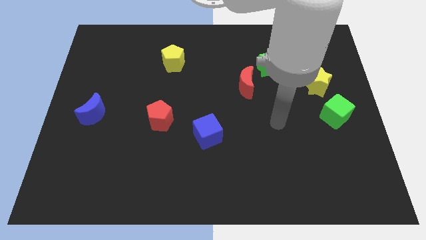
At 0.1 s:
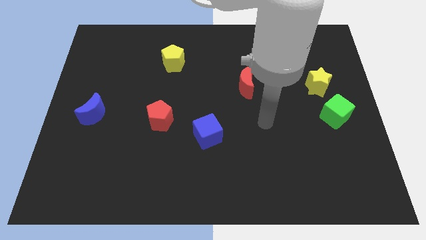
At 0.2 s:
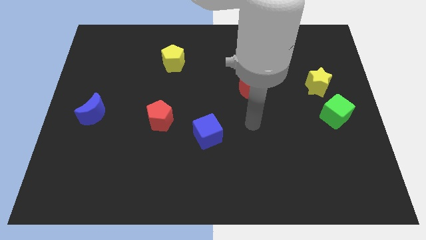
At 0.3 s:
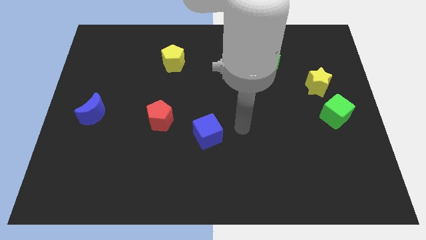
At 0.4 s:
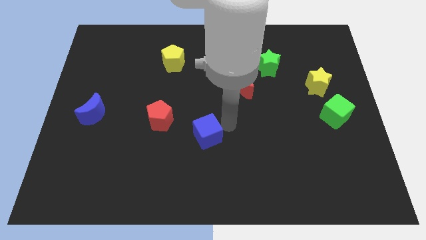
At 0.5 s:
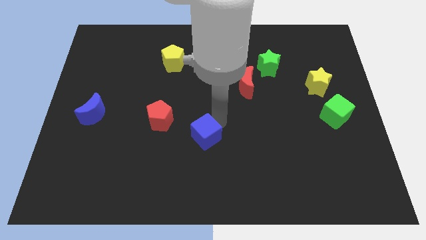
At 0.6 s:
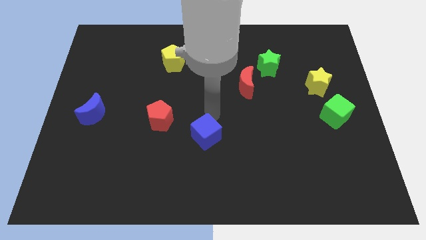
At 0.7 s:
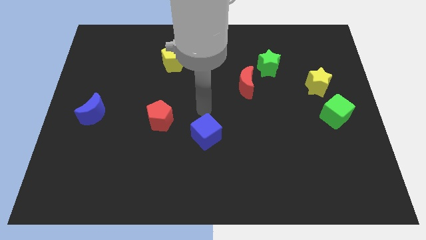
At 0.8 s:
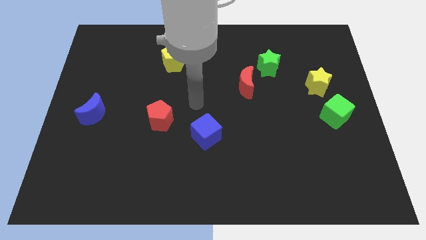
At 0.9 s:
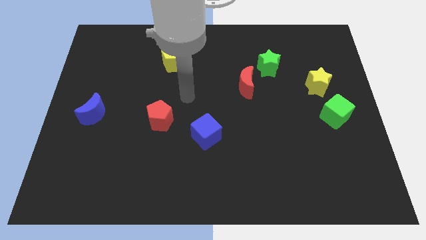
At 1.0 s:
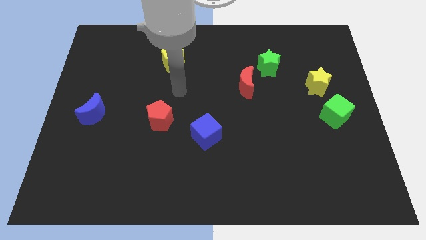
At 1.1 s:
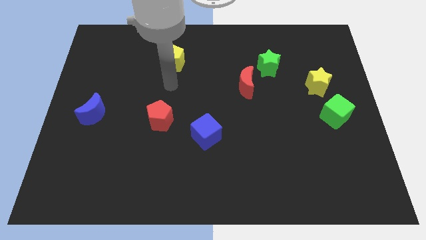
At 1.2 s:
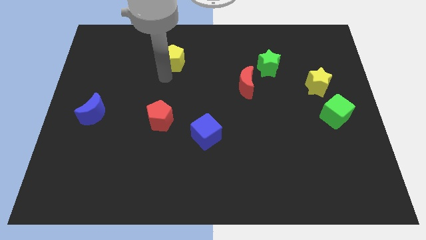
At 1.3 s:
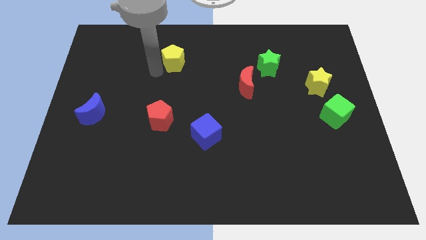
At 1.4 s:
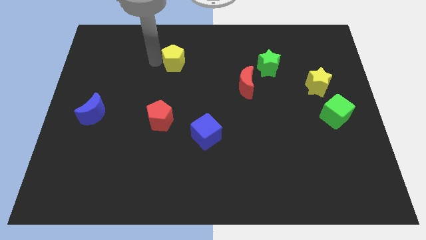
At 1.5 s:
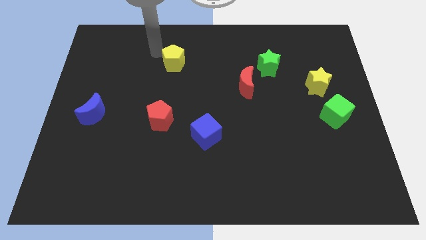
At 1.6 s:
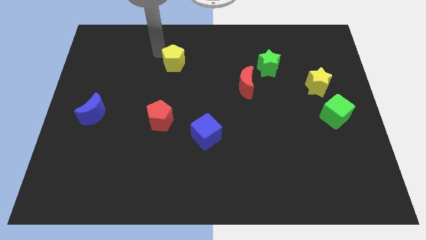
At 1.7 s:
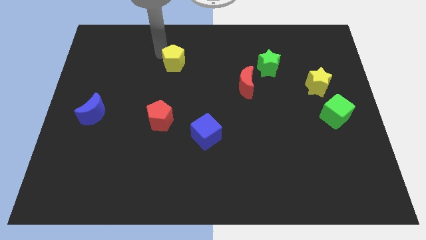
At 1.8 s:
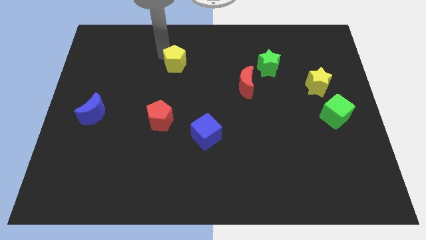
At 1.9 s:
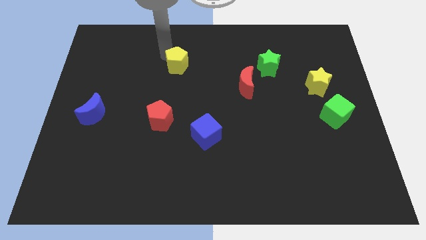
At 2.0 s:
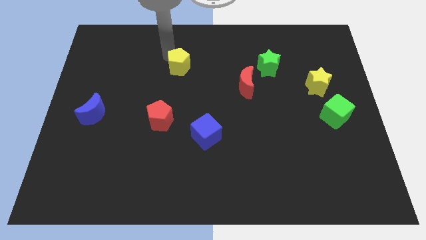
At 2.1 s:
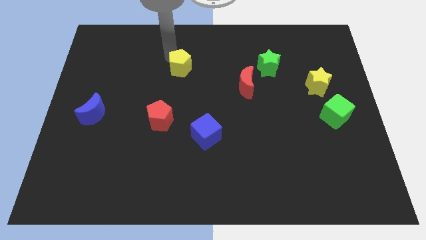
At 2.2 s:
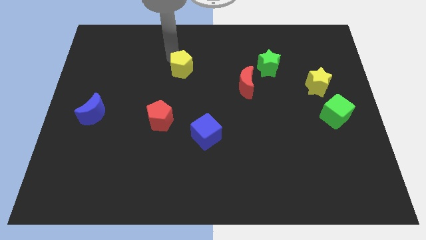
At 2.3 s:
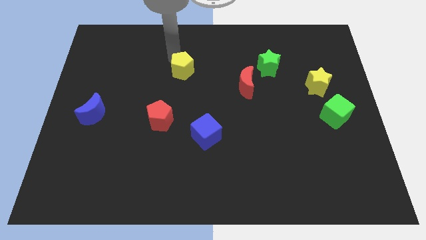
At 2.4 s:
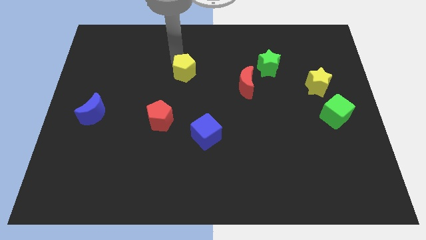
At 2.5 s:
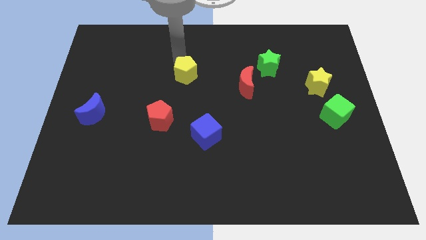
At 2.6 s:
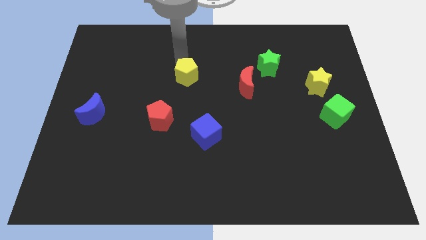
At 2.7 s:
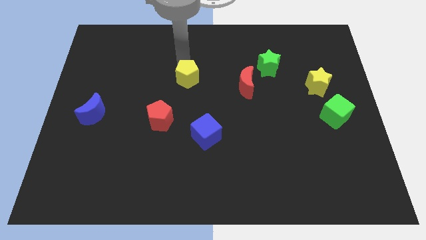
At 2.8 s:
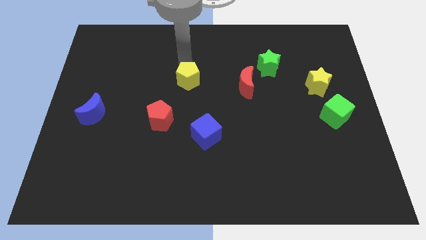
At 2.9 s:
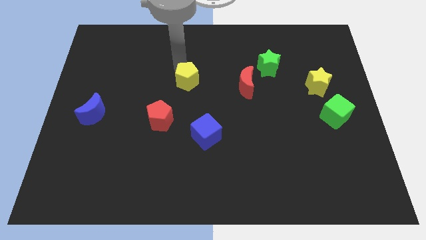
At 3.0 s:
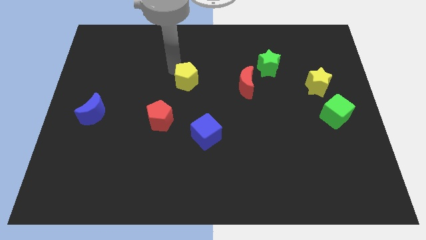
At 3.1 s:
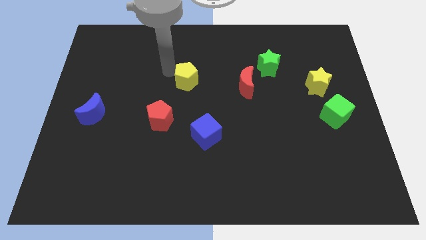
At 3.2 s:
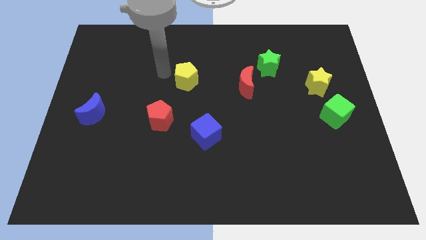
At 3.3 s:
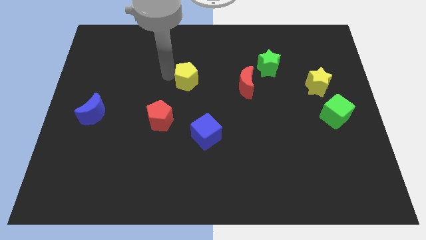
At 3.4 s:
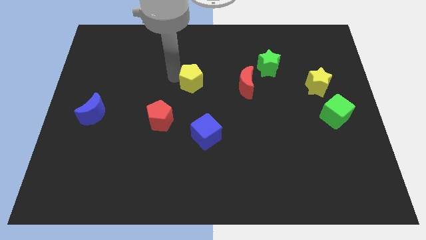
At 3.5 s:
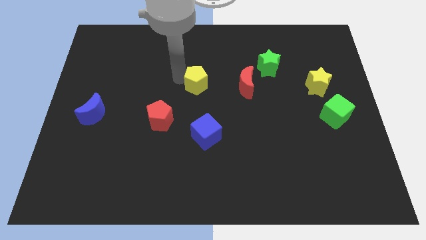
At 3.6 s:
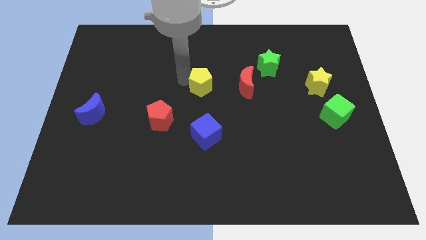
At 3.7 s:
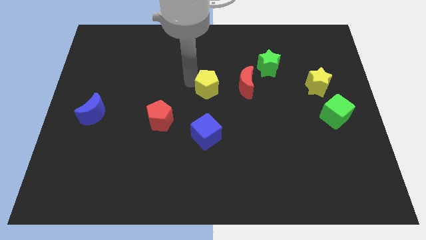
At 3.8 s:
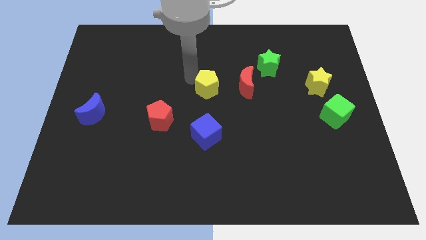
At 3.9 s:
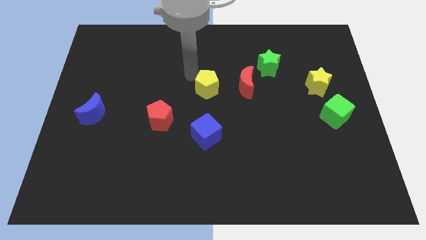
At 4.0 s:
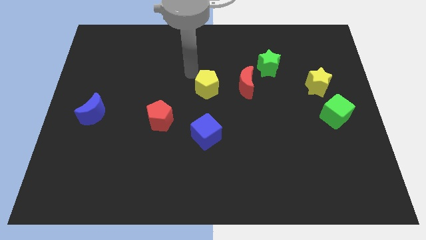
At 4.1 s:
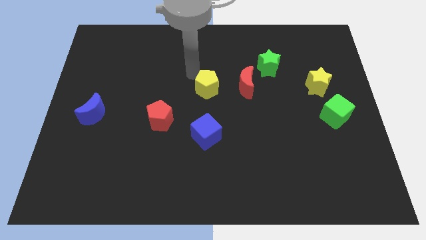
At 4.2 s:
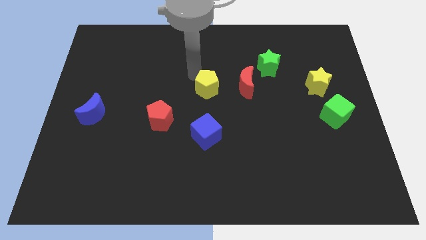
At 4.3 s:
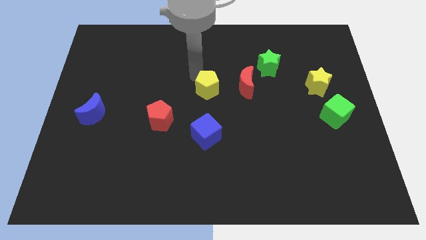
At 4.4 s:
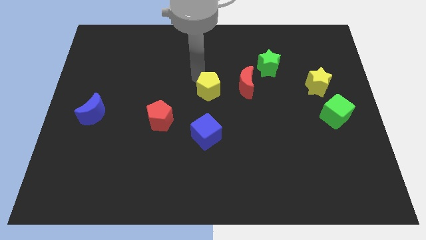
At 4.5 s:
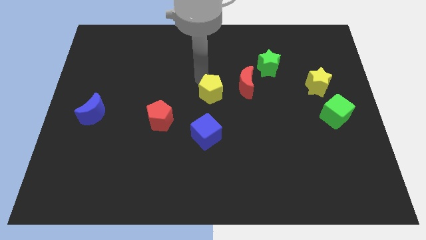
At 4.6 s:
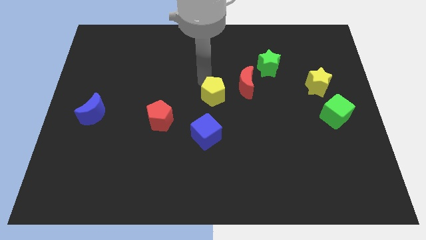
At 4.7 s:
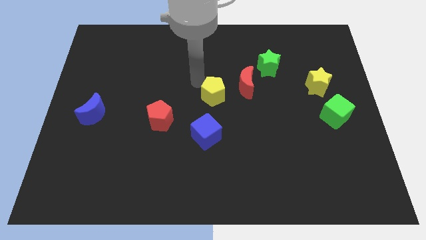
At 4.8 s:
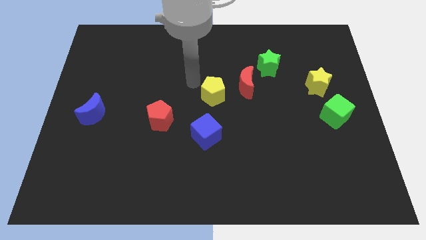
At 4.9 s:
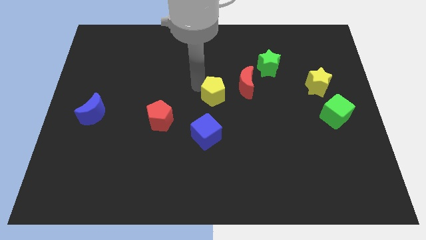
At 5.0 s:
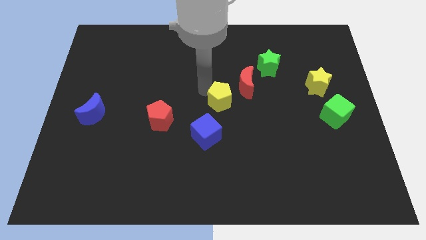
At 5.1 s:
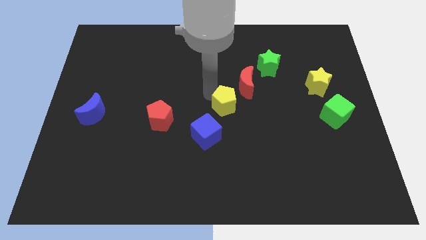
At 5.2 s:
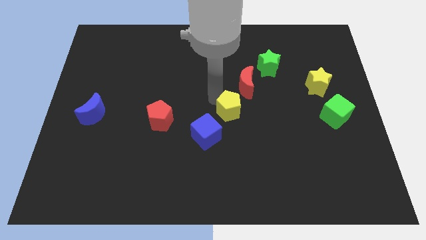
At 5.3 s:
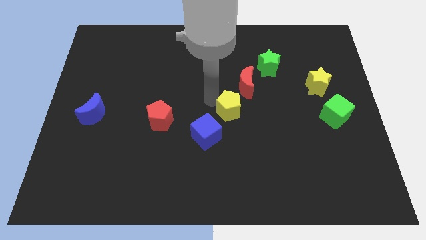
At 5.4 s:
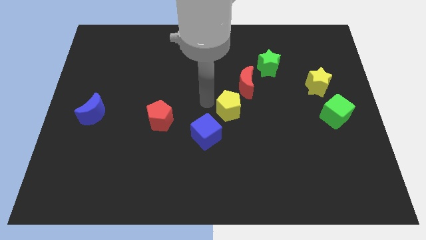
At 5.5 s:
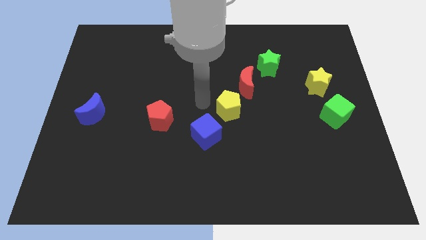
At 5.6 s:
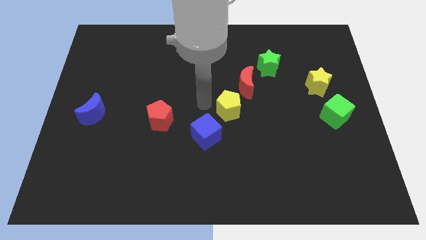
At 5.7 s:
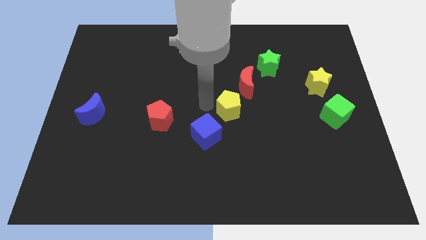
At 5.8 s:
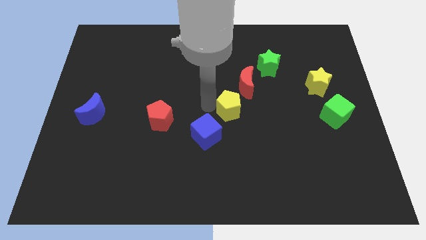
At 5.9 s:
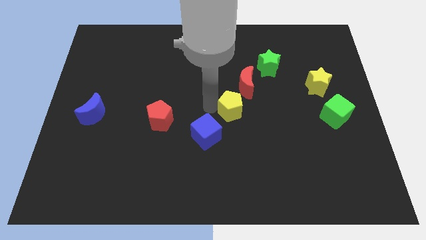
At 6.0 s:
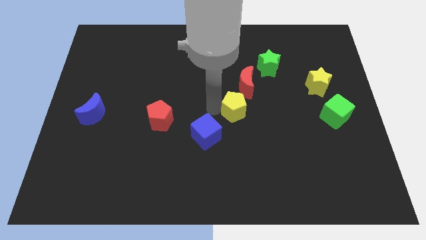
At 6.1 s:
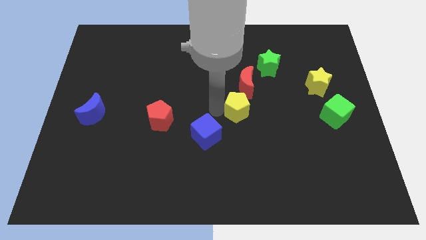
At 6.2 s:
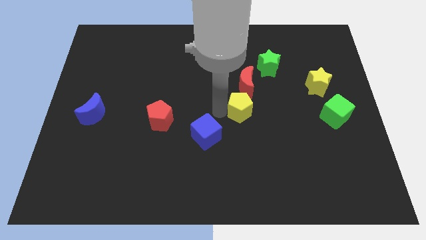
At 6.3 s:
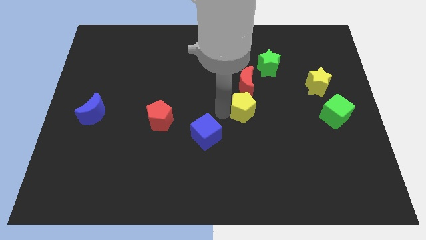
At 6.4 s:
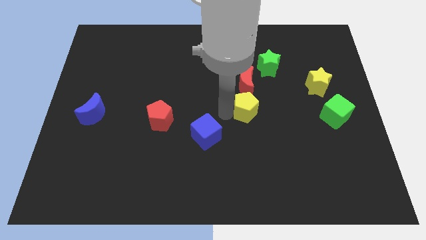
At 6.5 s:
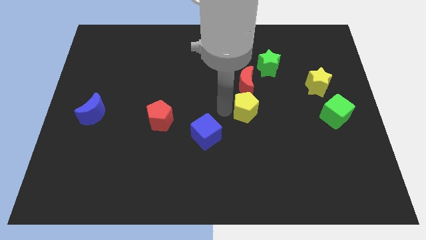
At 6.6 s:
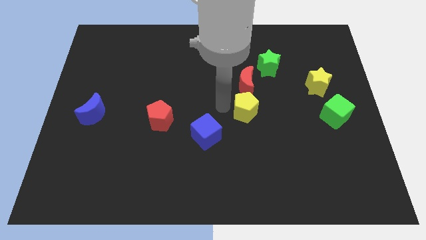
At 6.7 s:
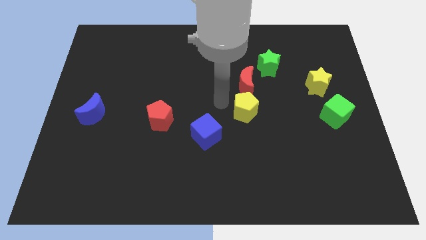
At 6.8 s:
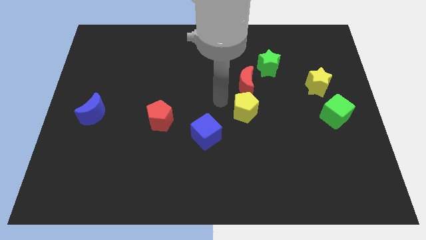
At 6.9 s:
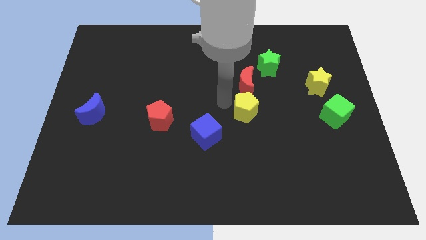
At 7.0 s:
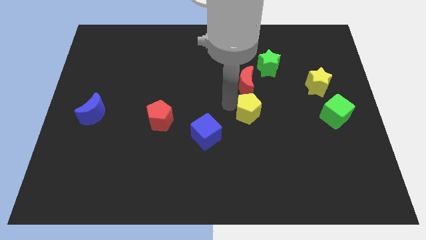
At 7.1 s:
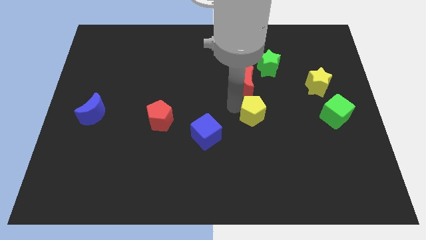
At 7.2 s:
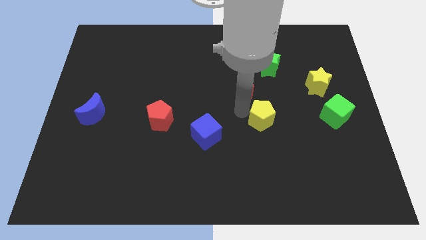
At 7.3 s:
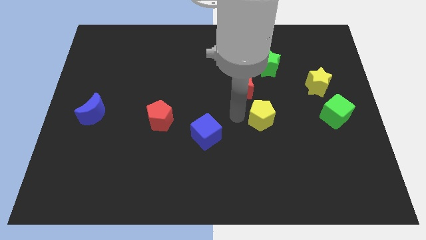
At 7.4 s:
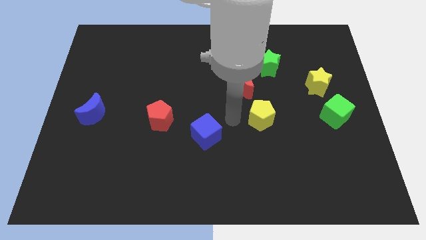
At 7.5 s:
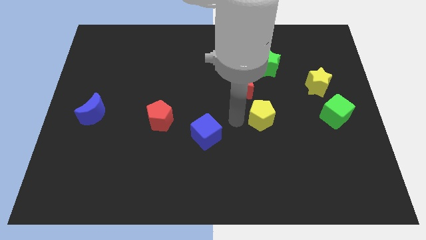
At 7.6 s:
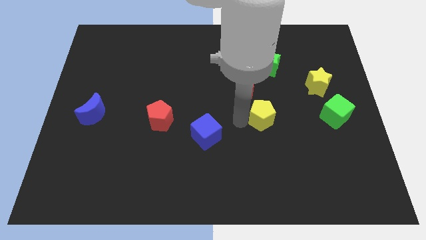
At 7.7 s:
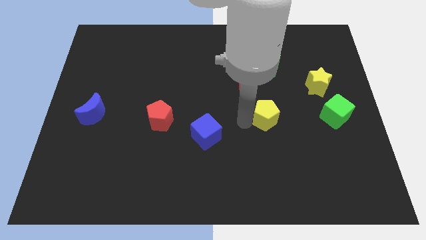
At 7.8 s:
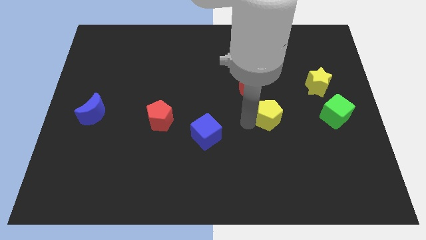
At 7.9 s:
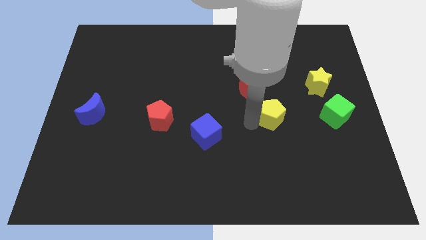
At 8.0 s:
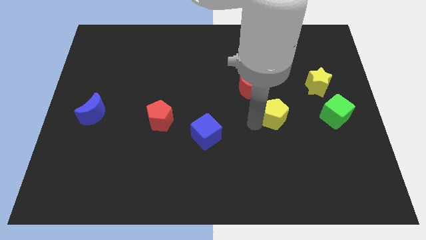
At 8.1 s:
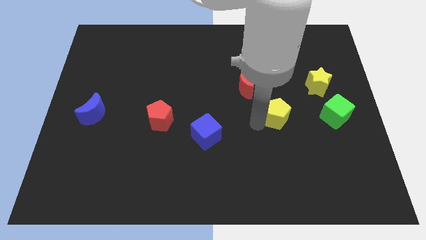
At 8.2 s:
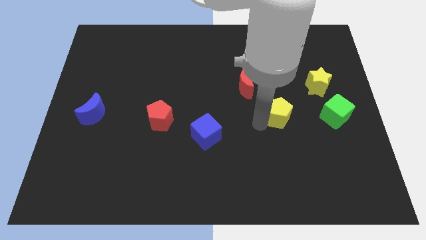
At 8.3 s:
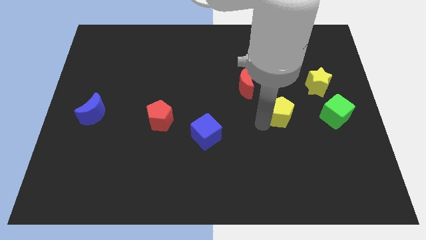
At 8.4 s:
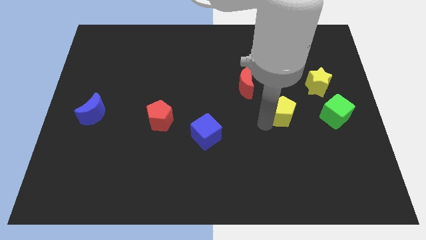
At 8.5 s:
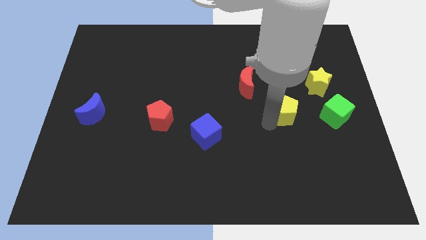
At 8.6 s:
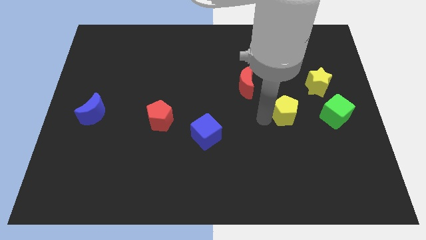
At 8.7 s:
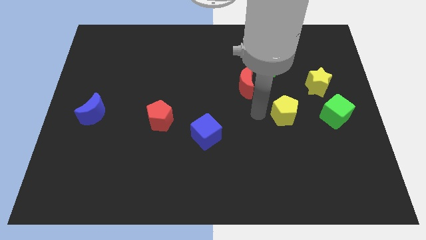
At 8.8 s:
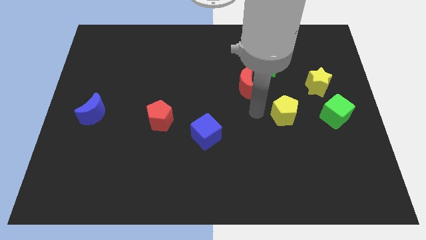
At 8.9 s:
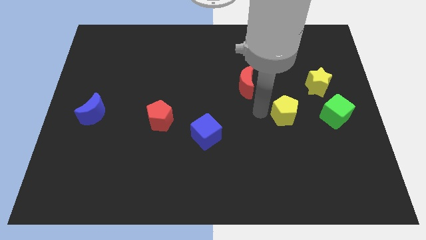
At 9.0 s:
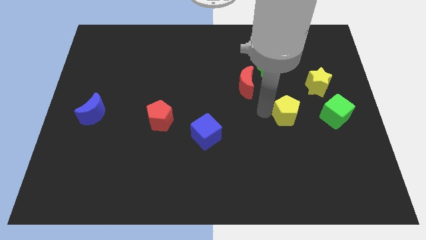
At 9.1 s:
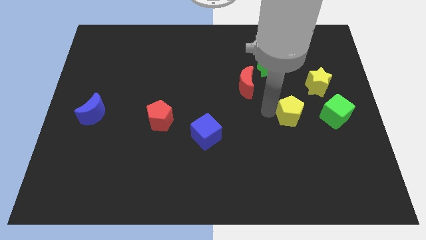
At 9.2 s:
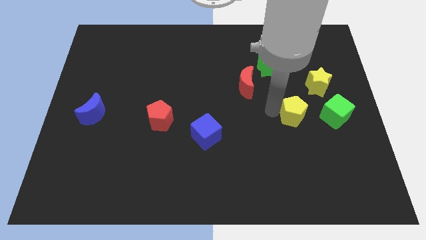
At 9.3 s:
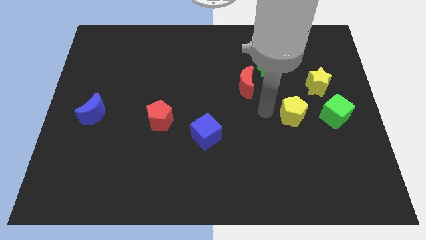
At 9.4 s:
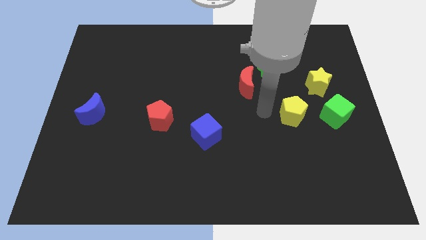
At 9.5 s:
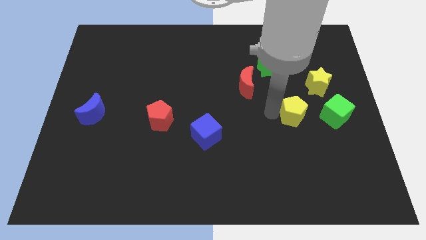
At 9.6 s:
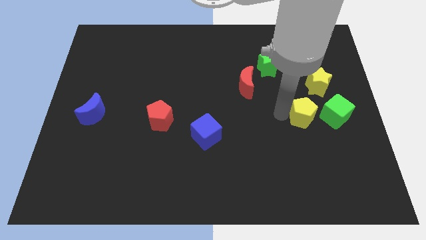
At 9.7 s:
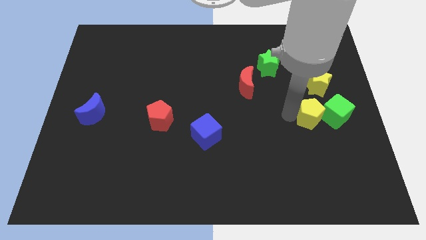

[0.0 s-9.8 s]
put the yellow pentagon to the bottom side of the yellow star
